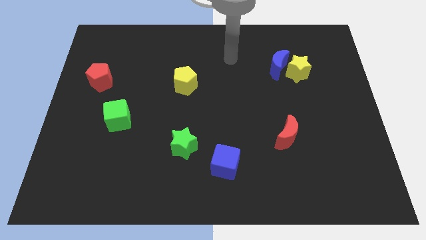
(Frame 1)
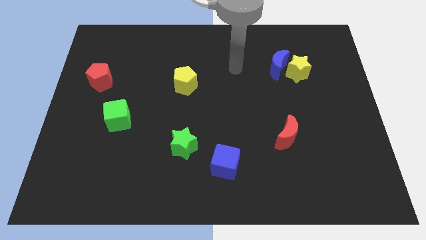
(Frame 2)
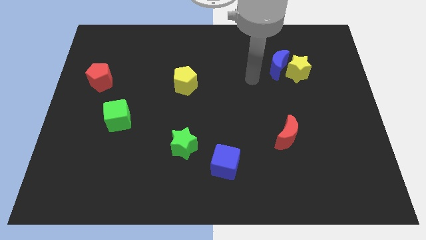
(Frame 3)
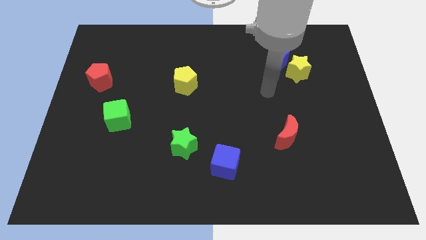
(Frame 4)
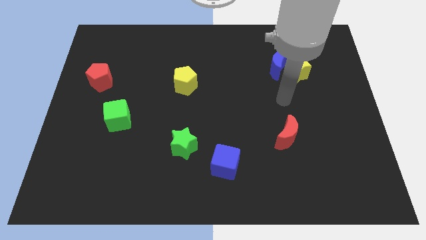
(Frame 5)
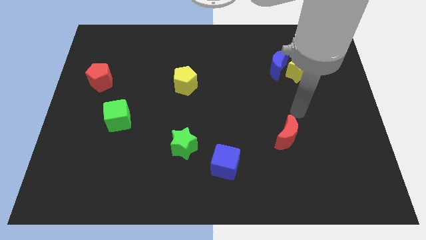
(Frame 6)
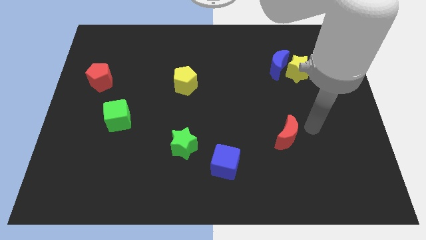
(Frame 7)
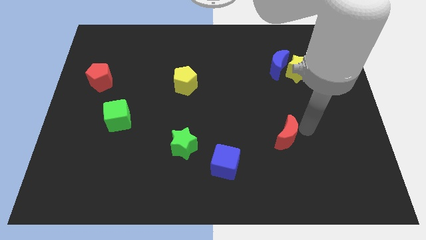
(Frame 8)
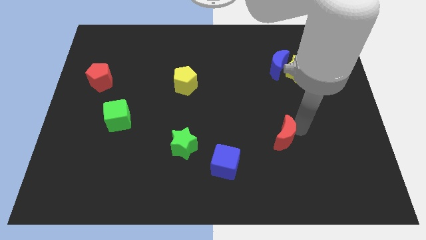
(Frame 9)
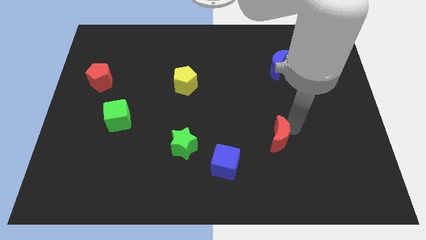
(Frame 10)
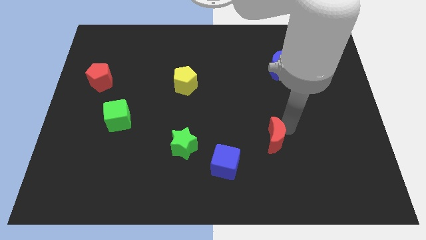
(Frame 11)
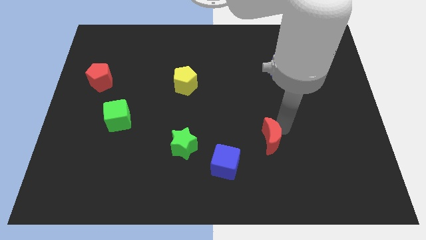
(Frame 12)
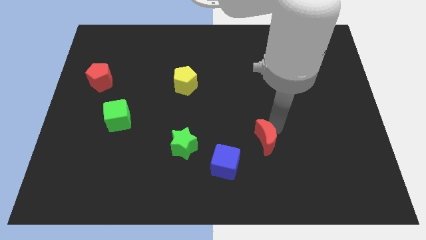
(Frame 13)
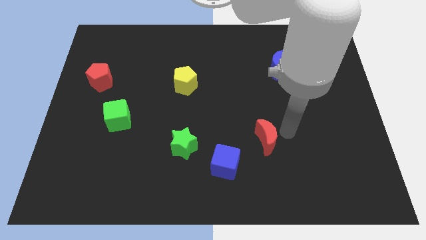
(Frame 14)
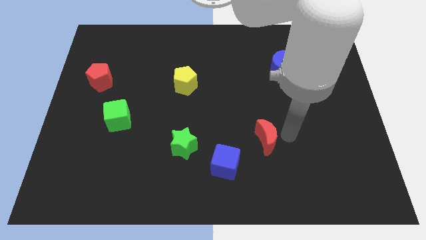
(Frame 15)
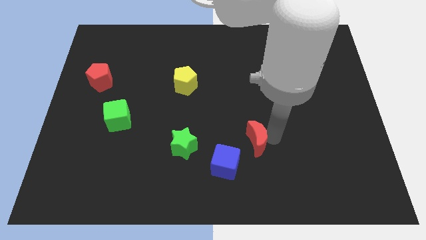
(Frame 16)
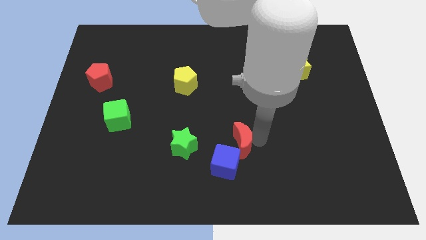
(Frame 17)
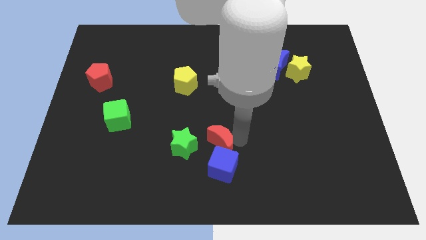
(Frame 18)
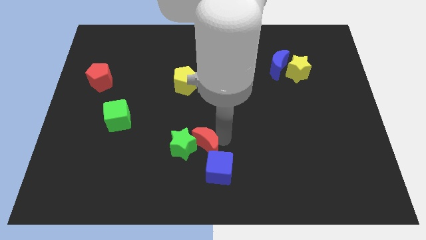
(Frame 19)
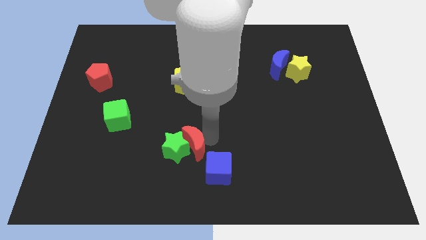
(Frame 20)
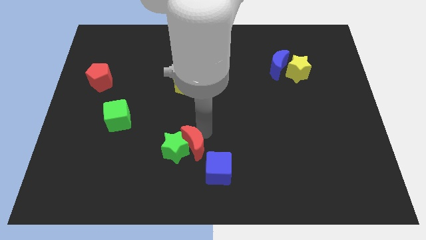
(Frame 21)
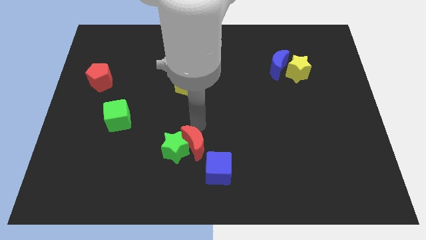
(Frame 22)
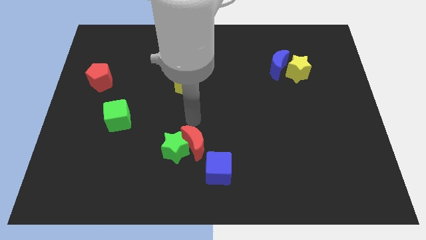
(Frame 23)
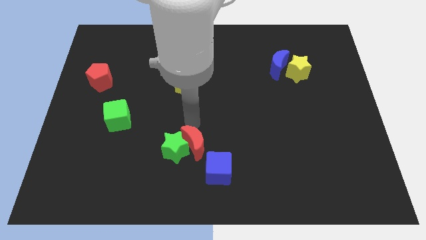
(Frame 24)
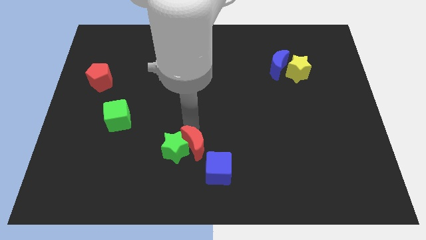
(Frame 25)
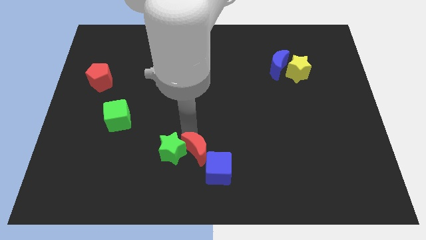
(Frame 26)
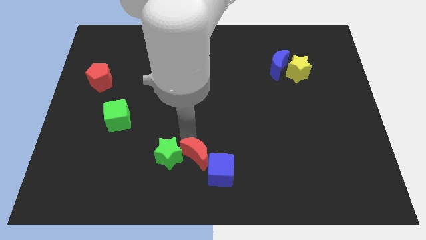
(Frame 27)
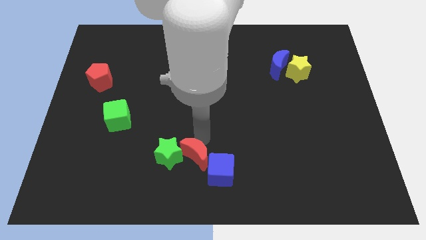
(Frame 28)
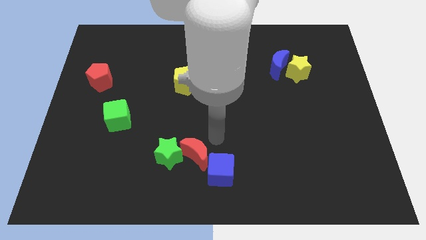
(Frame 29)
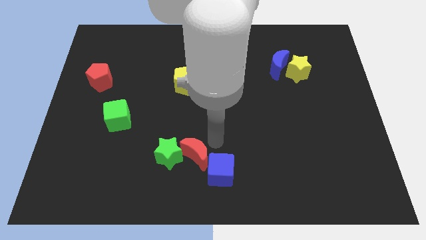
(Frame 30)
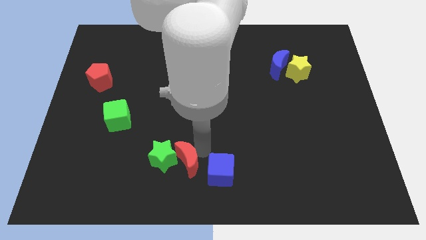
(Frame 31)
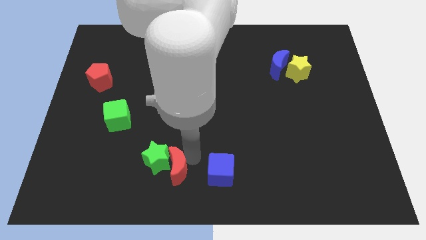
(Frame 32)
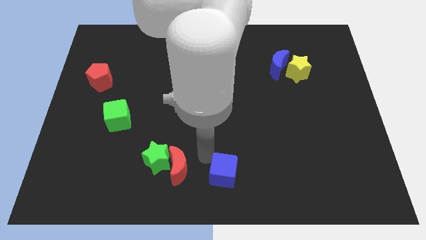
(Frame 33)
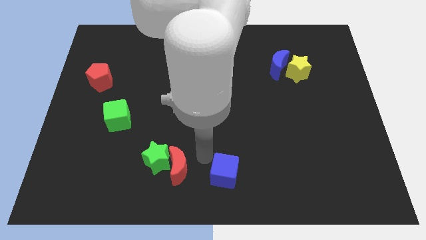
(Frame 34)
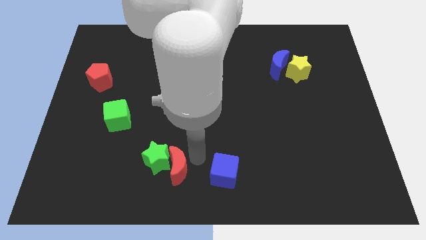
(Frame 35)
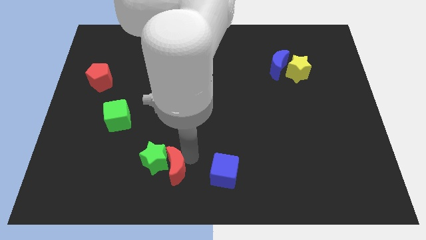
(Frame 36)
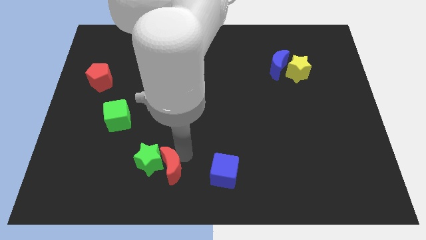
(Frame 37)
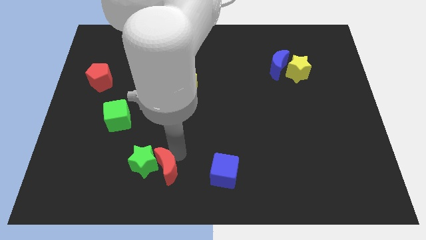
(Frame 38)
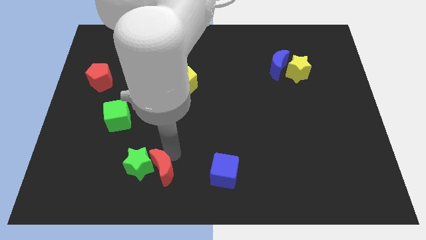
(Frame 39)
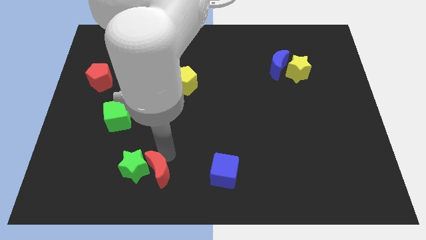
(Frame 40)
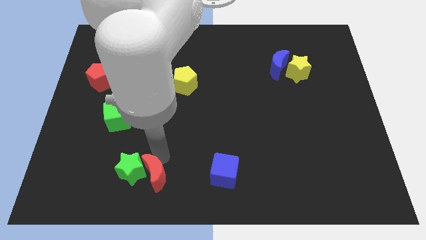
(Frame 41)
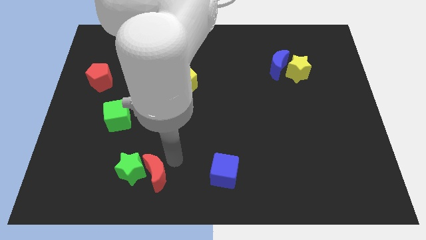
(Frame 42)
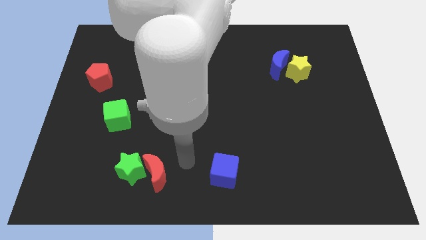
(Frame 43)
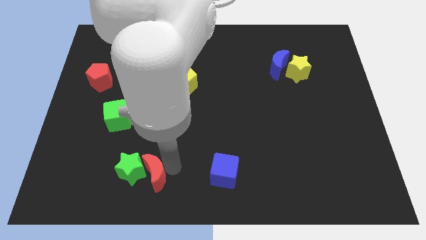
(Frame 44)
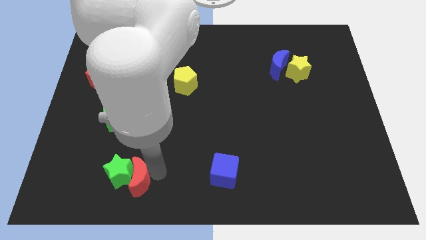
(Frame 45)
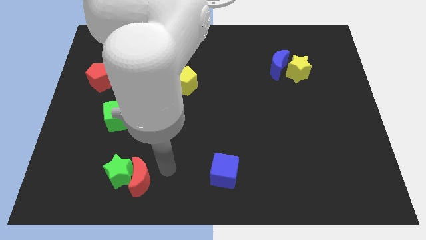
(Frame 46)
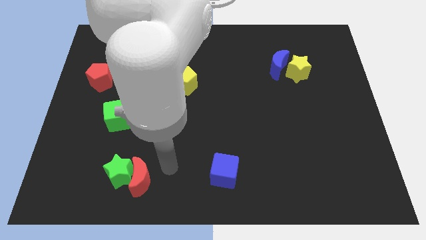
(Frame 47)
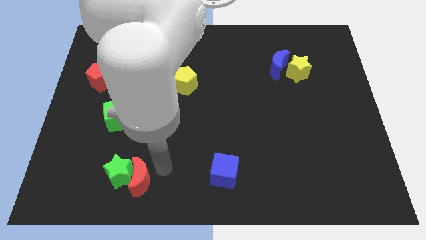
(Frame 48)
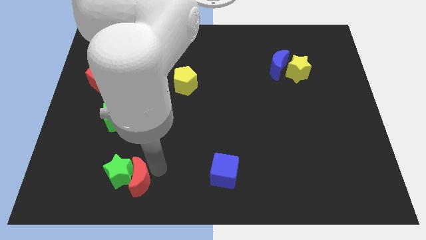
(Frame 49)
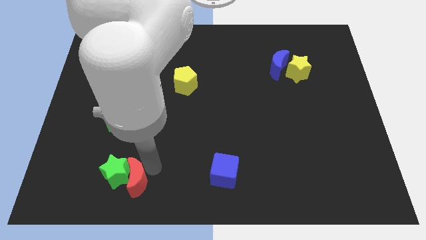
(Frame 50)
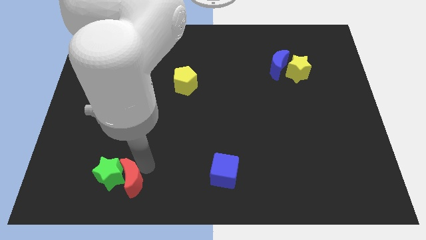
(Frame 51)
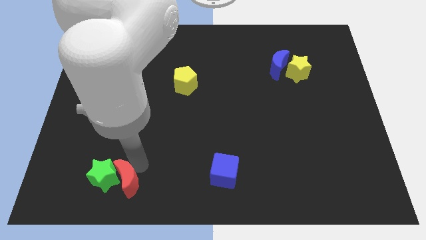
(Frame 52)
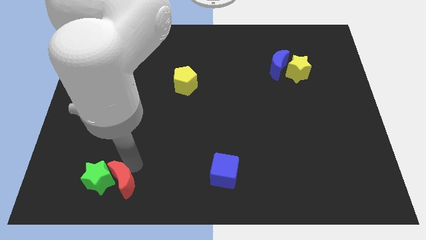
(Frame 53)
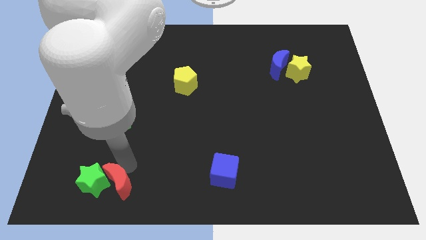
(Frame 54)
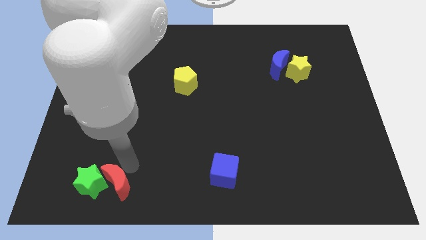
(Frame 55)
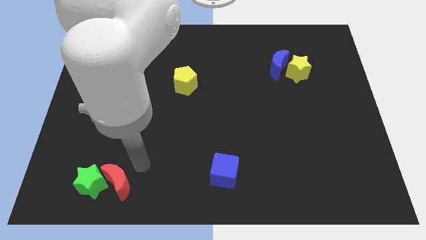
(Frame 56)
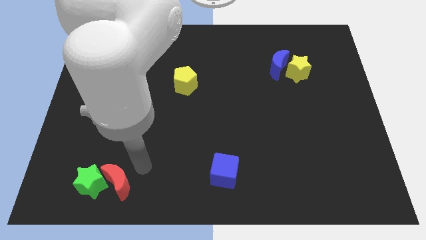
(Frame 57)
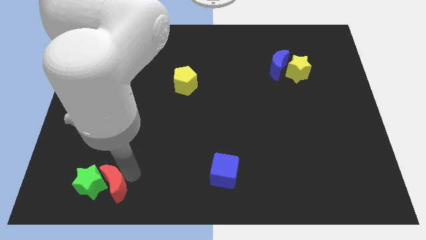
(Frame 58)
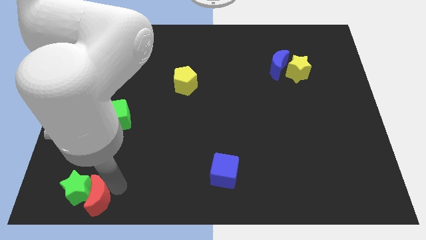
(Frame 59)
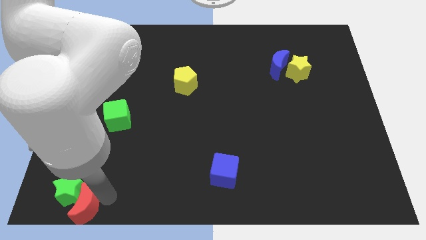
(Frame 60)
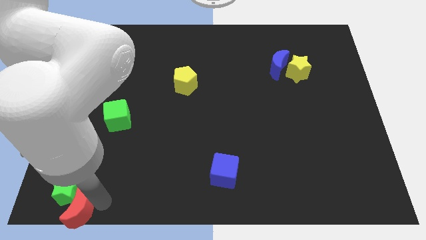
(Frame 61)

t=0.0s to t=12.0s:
move the red moon to the lower left corner

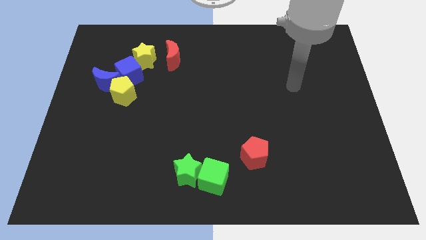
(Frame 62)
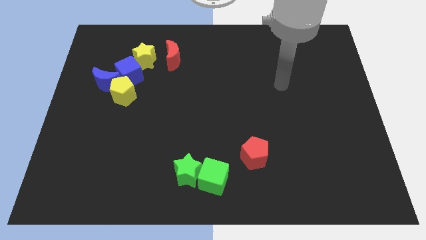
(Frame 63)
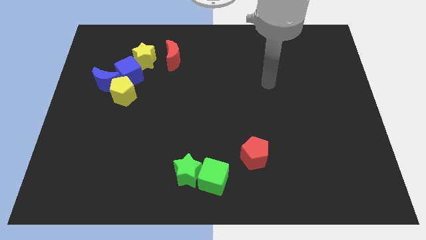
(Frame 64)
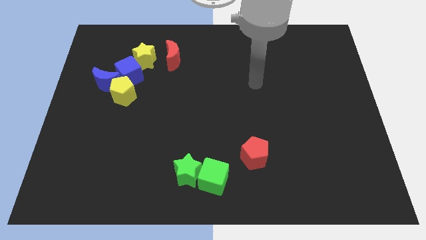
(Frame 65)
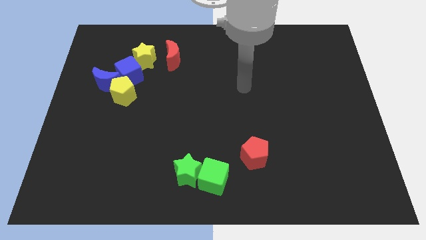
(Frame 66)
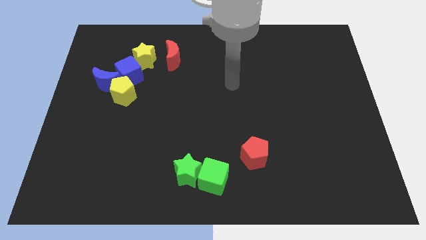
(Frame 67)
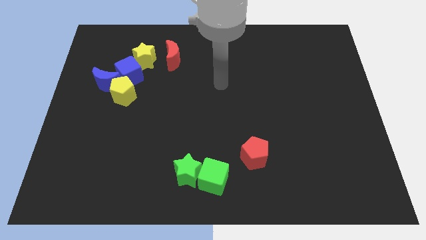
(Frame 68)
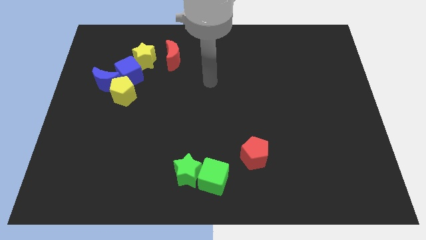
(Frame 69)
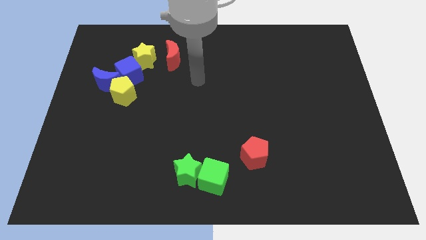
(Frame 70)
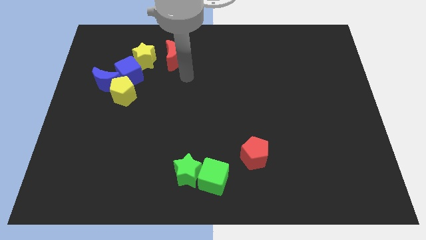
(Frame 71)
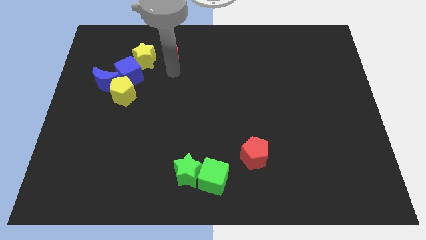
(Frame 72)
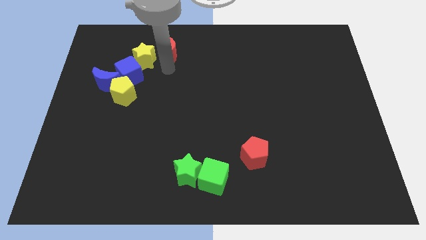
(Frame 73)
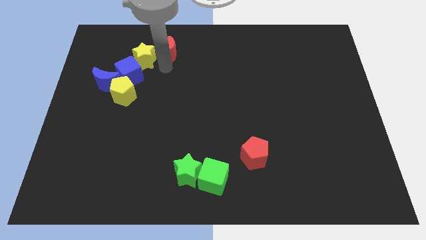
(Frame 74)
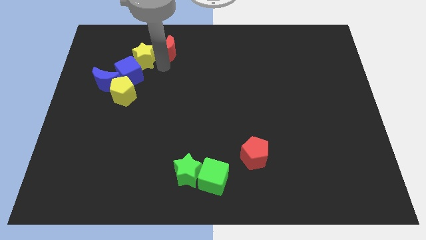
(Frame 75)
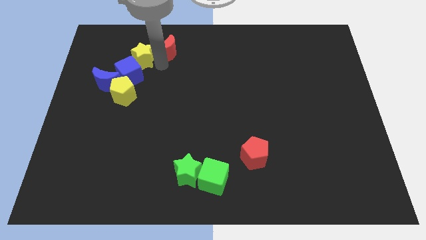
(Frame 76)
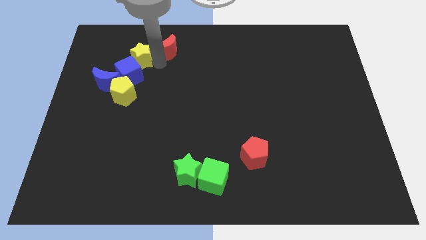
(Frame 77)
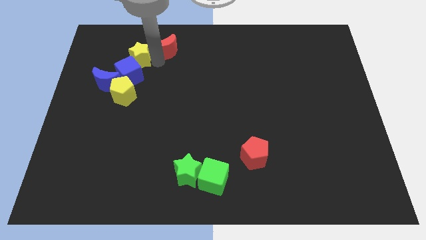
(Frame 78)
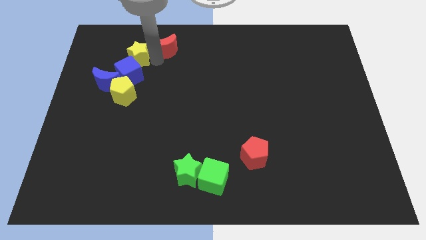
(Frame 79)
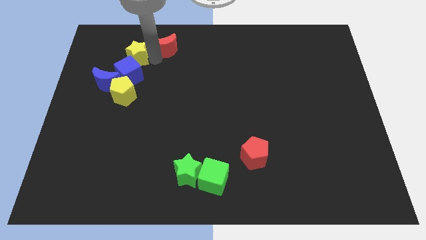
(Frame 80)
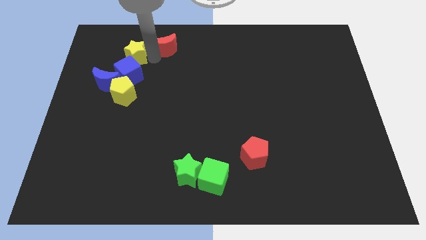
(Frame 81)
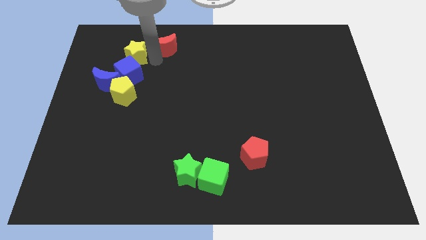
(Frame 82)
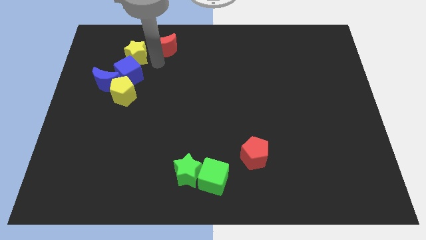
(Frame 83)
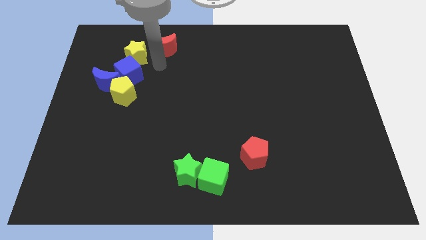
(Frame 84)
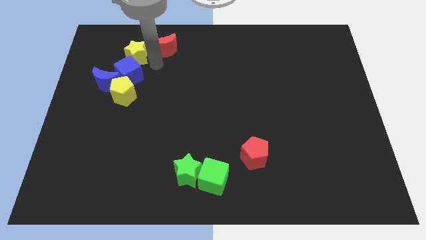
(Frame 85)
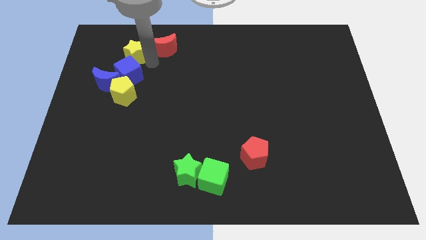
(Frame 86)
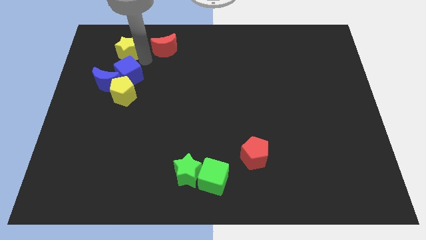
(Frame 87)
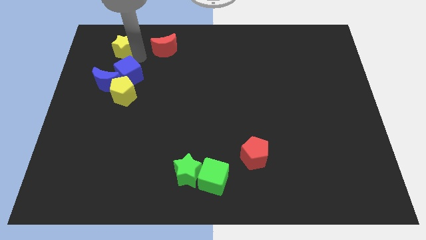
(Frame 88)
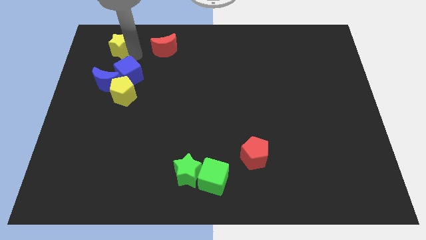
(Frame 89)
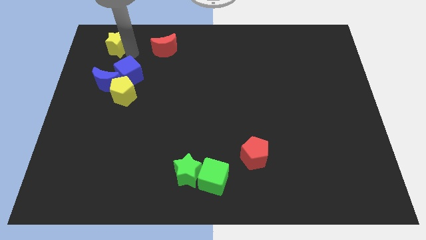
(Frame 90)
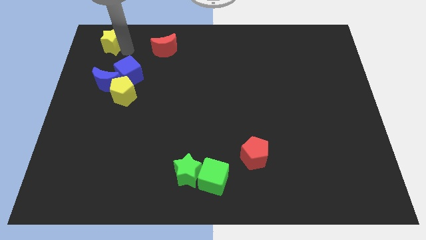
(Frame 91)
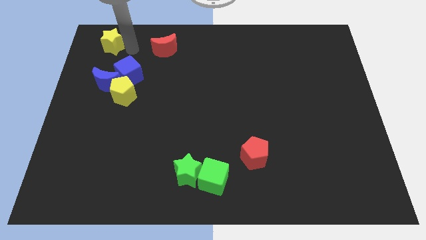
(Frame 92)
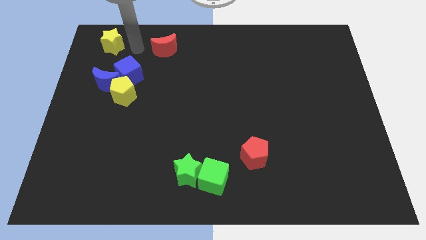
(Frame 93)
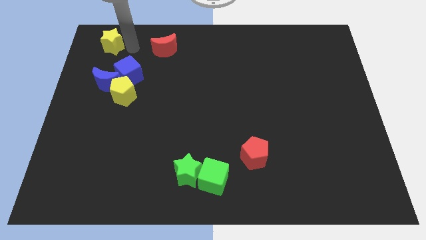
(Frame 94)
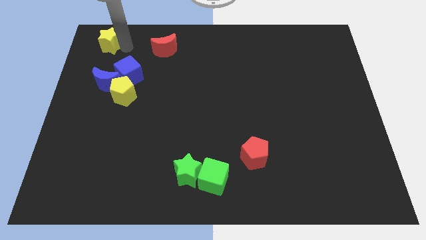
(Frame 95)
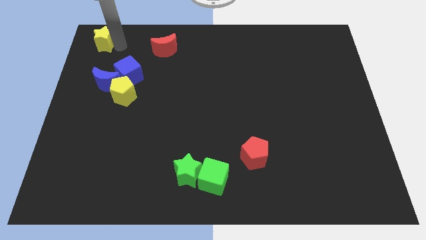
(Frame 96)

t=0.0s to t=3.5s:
push the yellow star to the upper left corner
